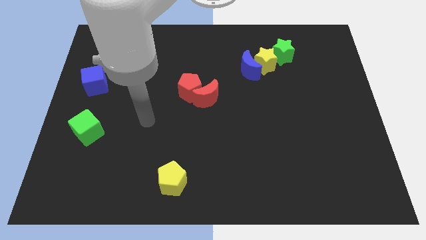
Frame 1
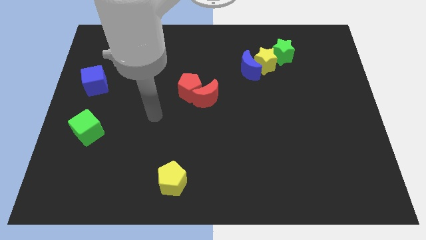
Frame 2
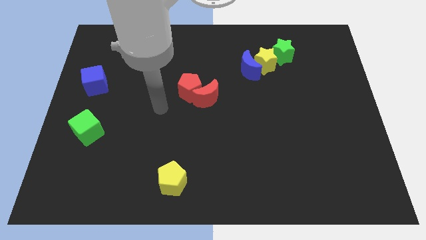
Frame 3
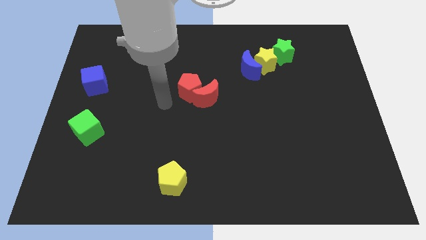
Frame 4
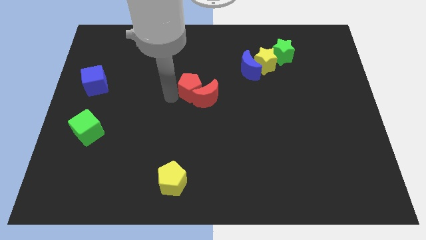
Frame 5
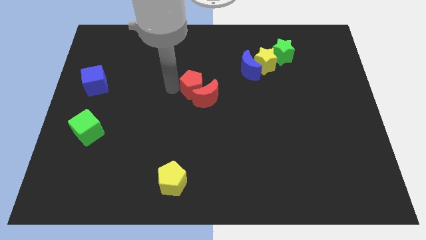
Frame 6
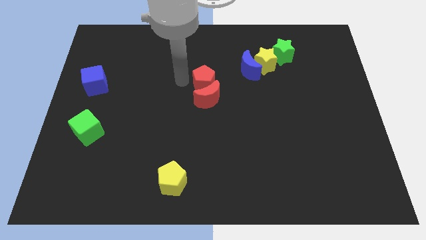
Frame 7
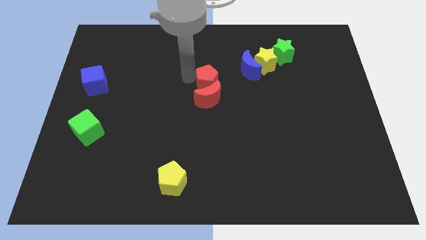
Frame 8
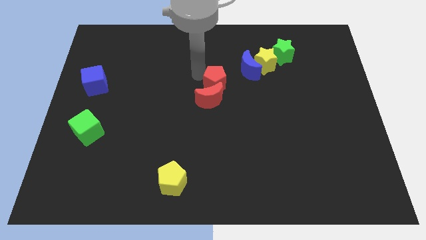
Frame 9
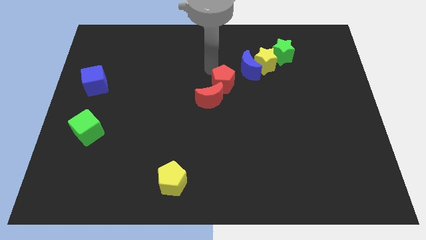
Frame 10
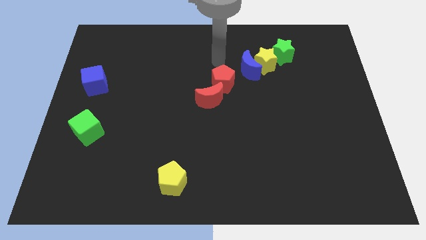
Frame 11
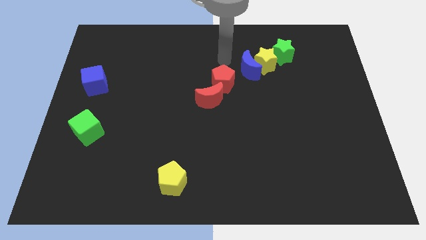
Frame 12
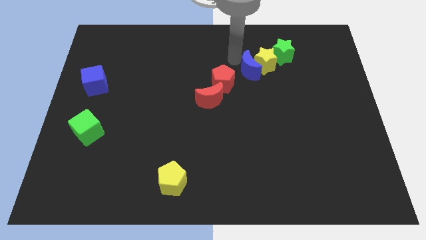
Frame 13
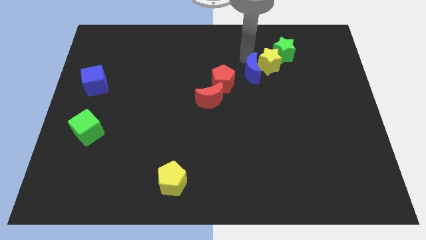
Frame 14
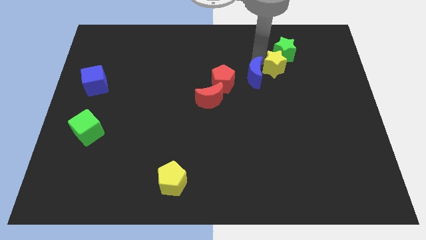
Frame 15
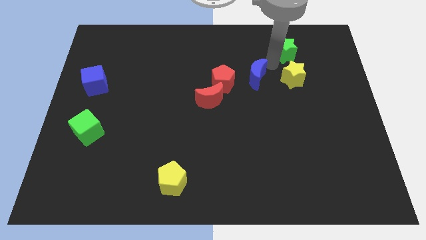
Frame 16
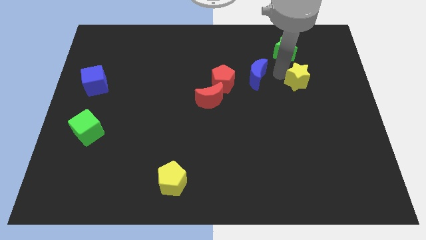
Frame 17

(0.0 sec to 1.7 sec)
separate the blue moon from the yellow star

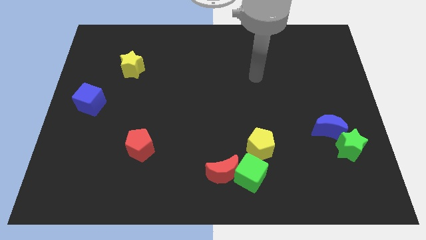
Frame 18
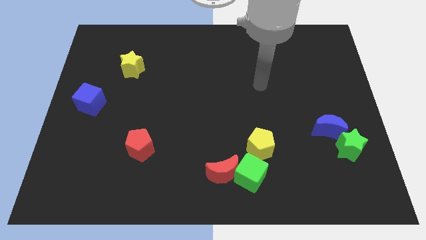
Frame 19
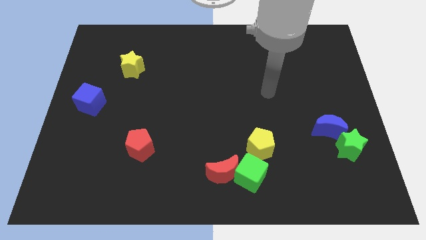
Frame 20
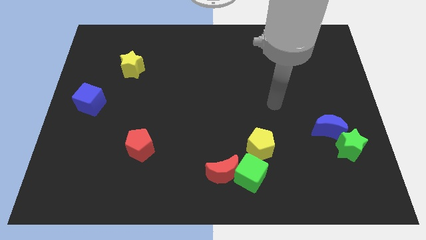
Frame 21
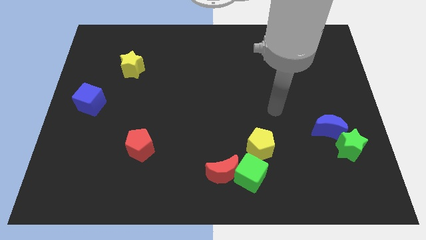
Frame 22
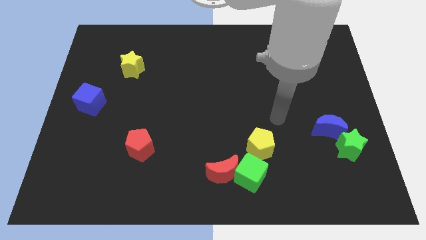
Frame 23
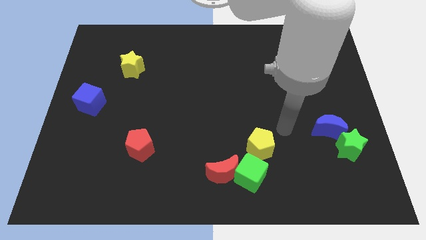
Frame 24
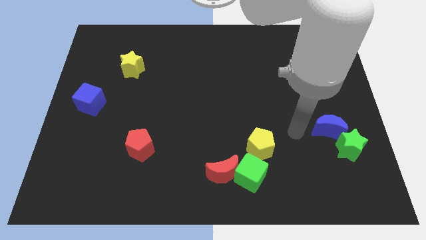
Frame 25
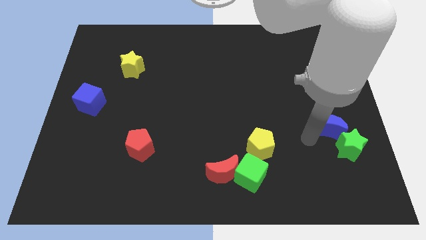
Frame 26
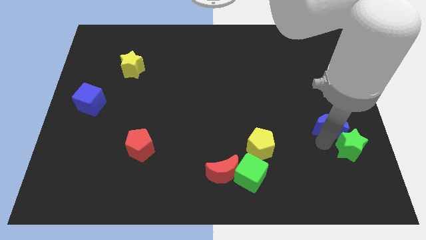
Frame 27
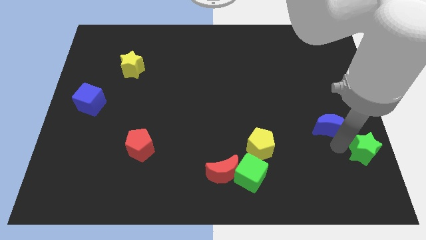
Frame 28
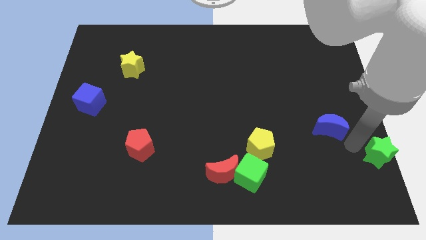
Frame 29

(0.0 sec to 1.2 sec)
move the blue moon away from the green star

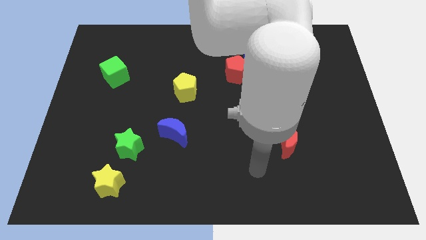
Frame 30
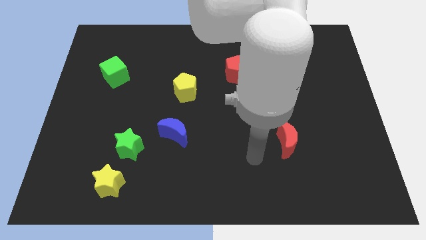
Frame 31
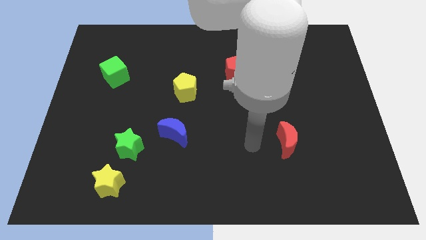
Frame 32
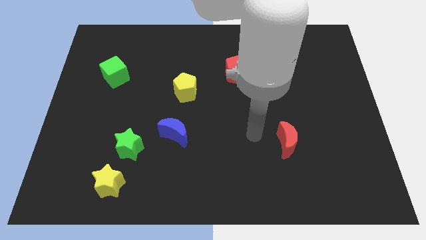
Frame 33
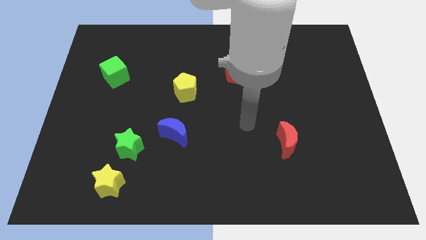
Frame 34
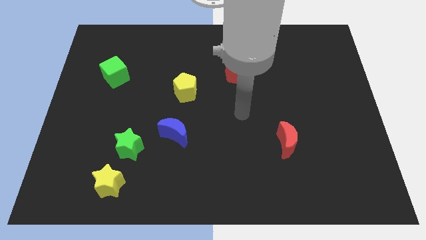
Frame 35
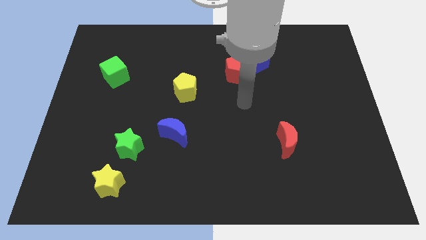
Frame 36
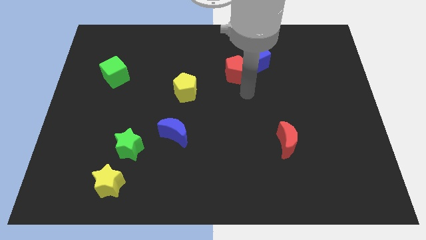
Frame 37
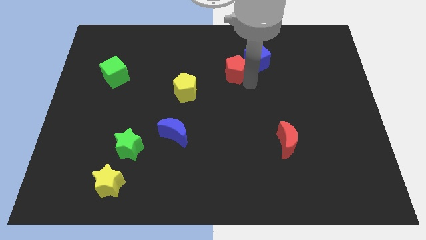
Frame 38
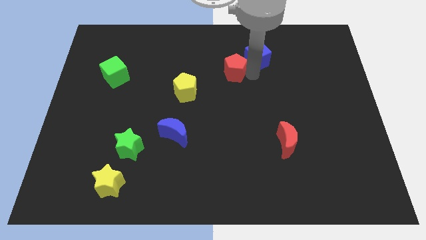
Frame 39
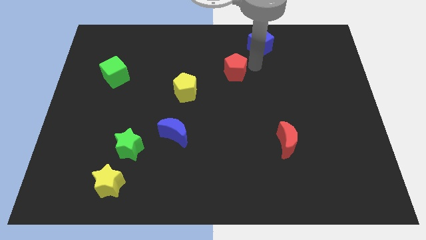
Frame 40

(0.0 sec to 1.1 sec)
move the red pentagon away from the blue cube

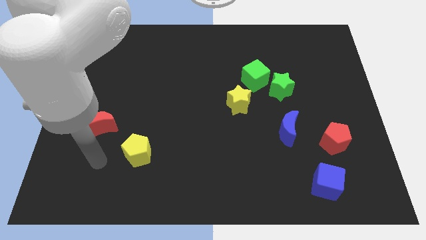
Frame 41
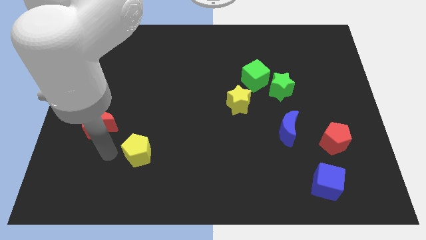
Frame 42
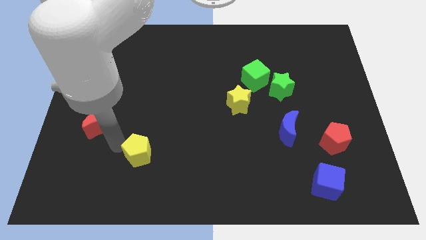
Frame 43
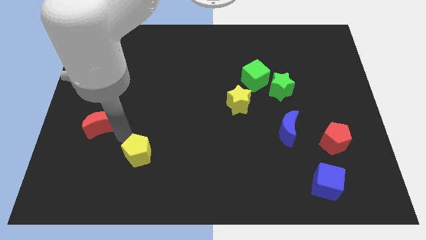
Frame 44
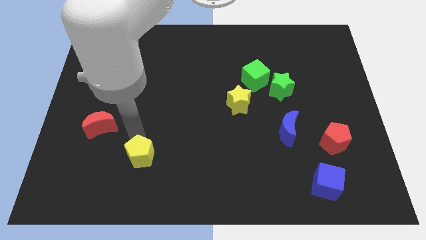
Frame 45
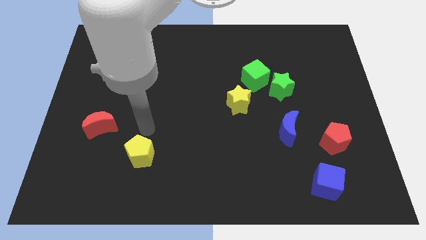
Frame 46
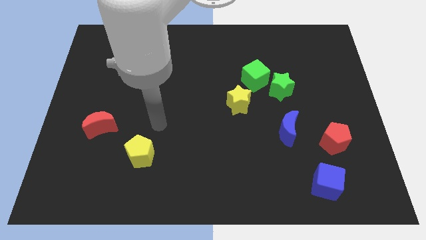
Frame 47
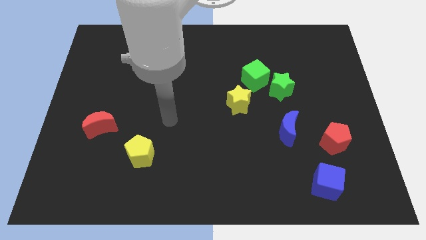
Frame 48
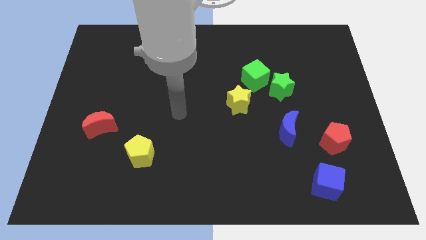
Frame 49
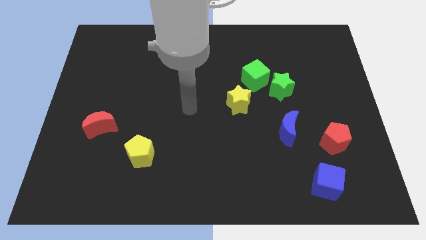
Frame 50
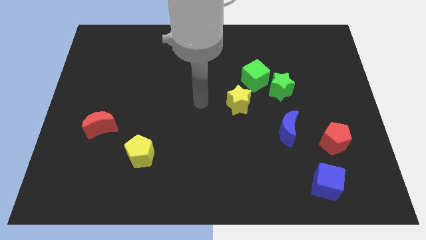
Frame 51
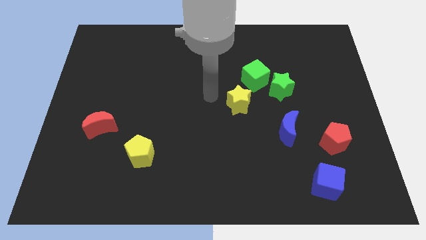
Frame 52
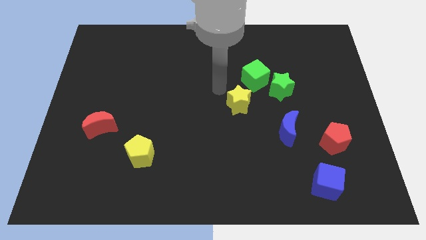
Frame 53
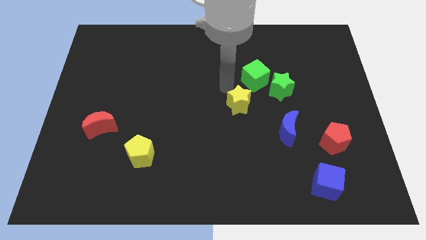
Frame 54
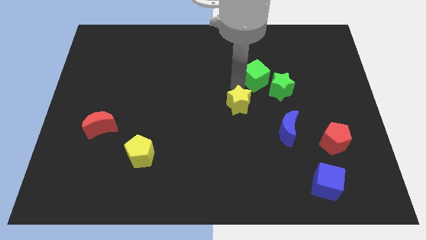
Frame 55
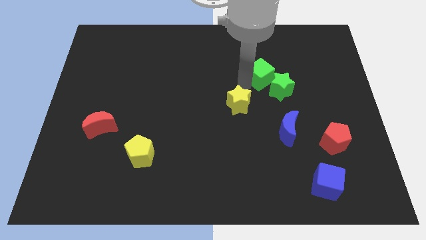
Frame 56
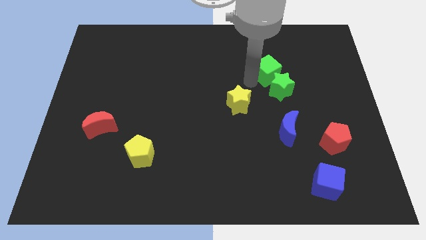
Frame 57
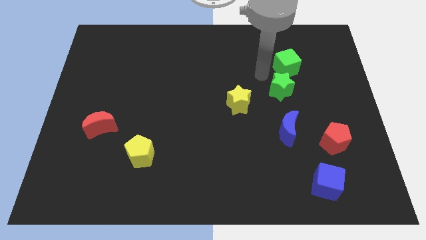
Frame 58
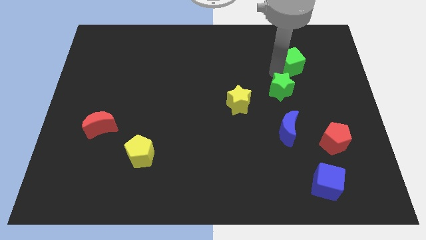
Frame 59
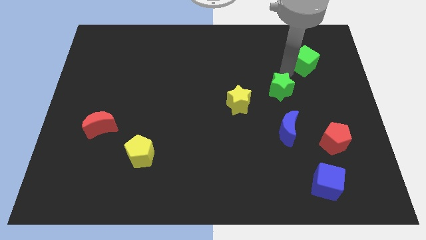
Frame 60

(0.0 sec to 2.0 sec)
pull the green star apart from the green cube

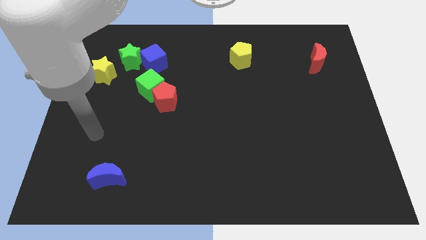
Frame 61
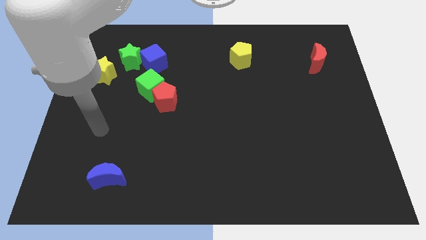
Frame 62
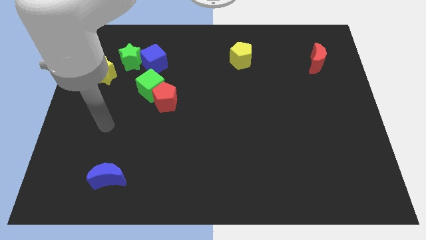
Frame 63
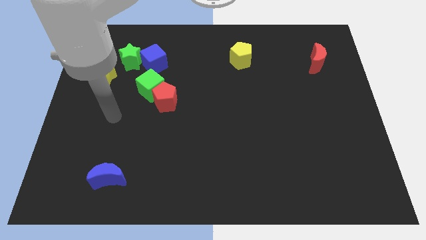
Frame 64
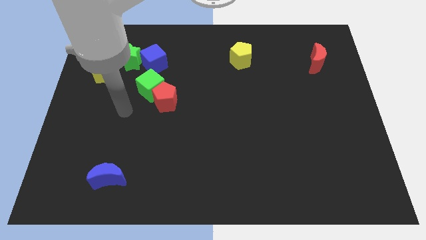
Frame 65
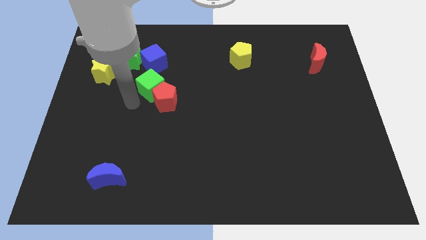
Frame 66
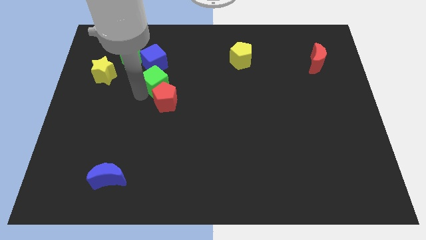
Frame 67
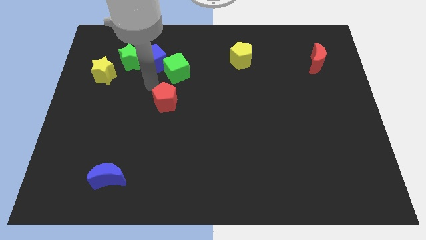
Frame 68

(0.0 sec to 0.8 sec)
separate the red pentagon from the green cube

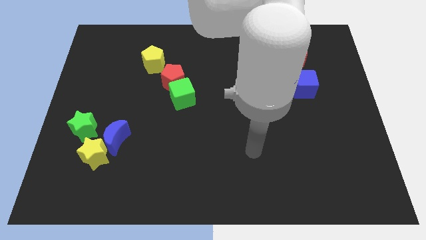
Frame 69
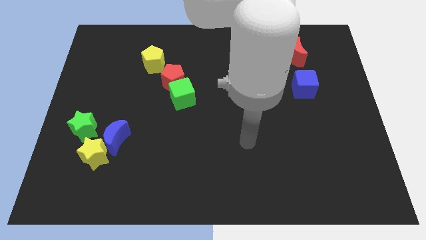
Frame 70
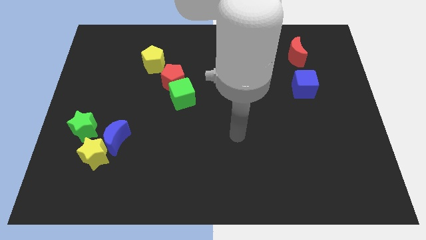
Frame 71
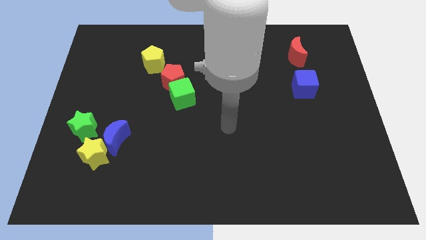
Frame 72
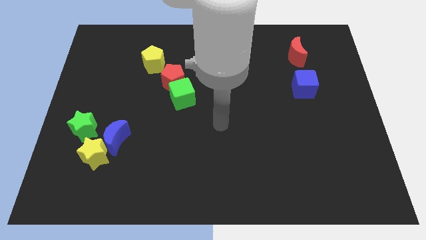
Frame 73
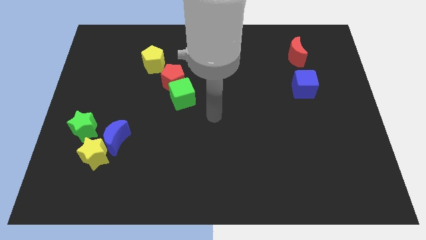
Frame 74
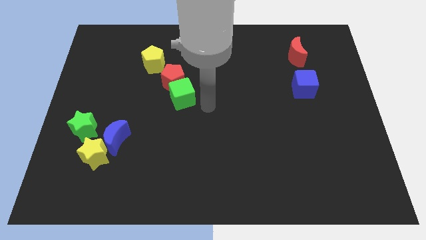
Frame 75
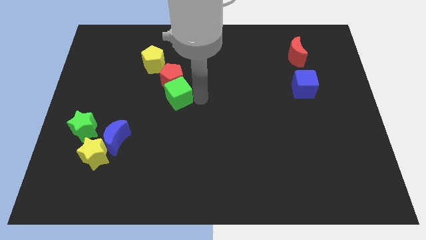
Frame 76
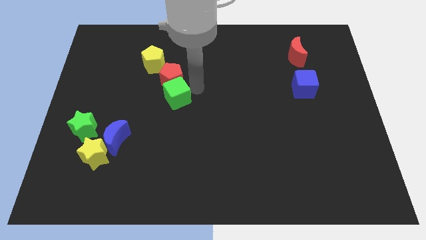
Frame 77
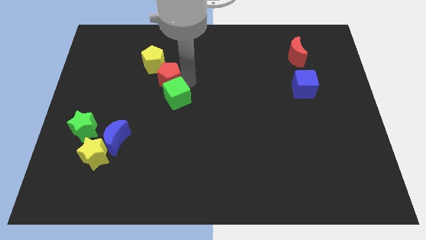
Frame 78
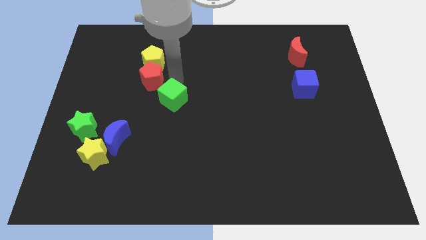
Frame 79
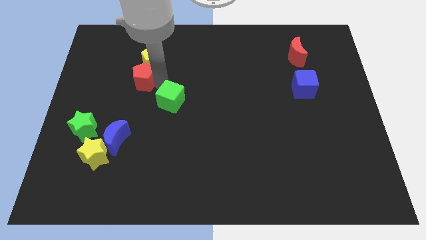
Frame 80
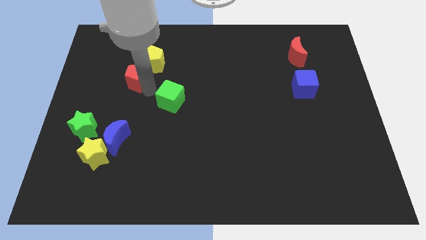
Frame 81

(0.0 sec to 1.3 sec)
separate the green cube from the red pentagon

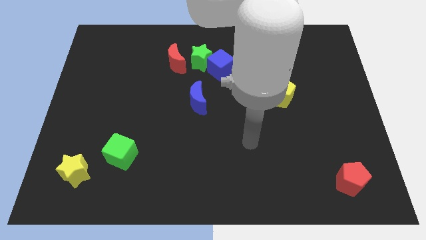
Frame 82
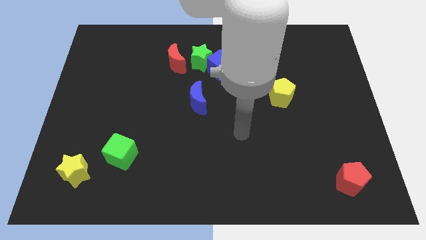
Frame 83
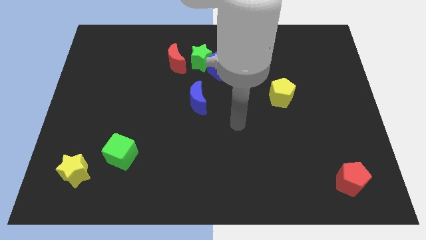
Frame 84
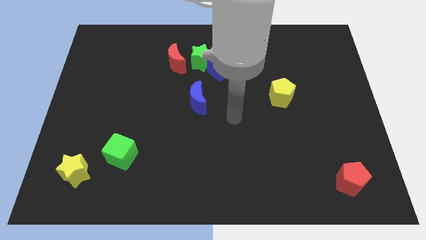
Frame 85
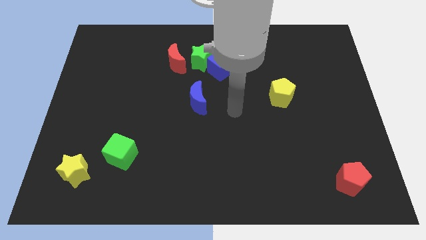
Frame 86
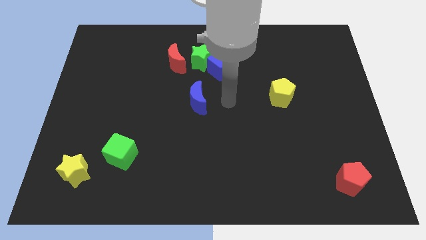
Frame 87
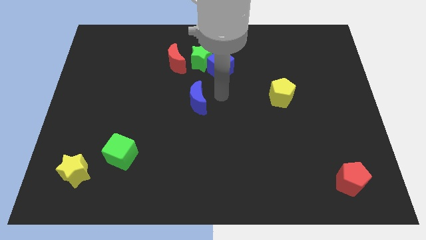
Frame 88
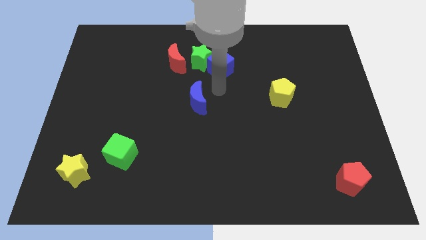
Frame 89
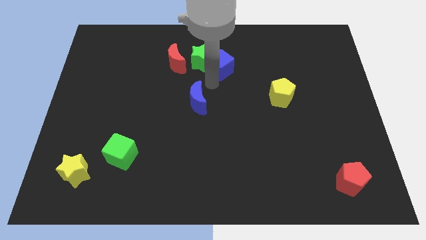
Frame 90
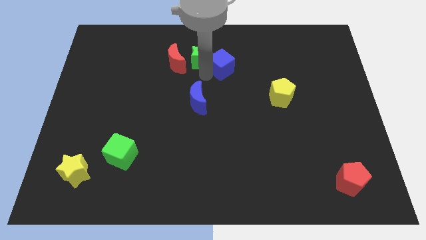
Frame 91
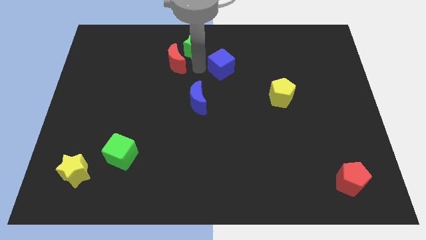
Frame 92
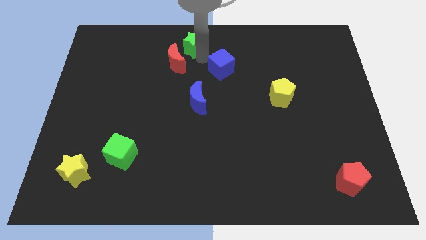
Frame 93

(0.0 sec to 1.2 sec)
pull the blue cube apart from the green star
